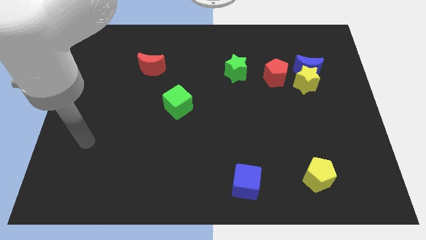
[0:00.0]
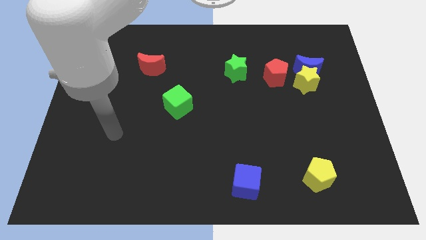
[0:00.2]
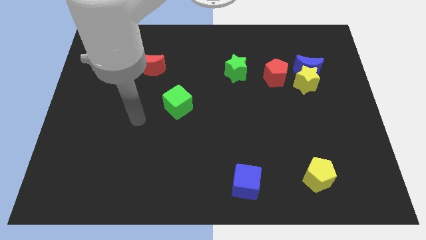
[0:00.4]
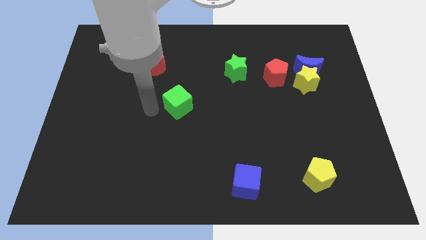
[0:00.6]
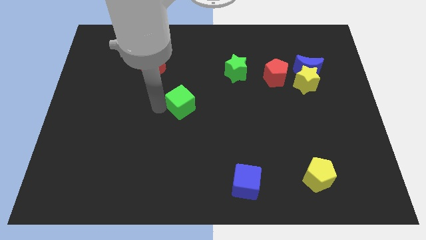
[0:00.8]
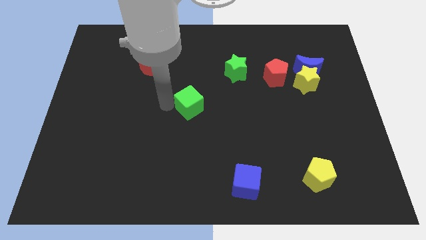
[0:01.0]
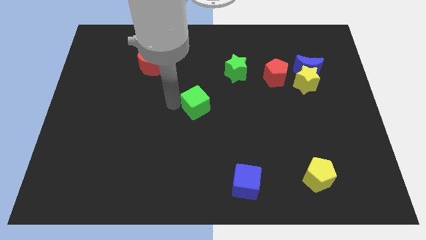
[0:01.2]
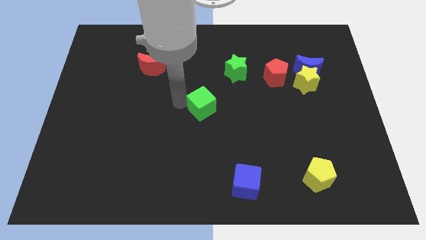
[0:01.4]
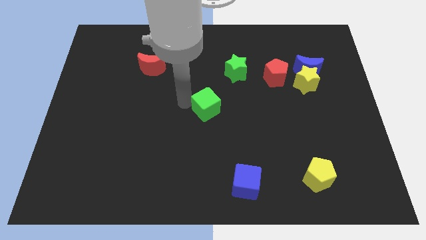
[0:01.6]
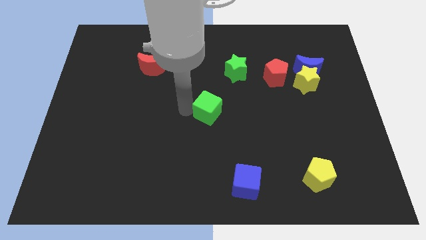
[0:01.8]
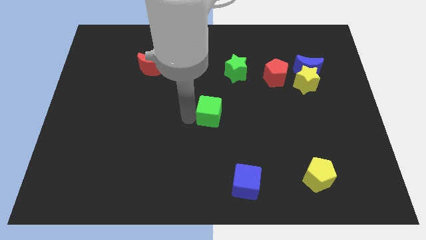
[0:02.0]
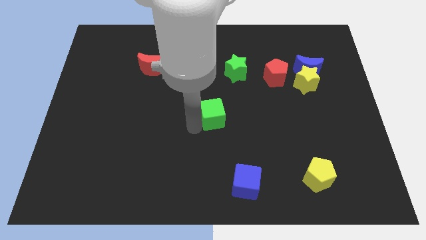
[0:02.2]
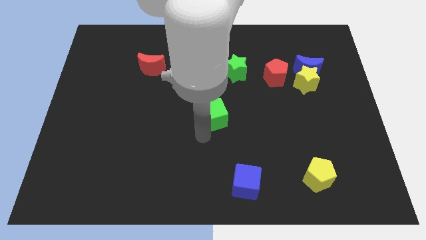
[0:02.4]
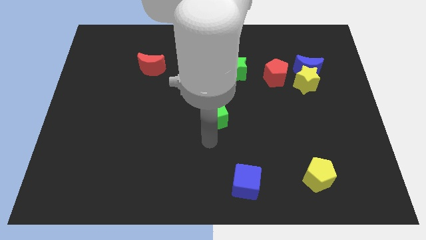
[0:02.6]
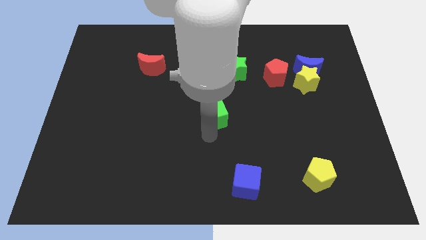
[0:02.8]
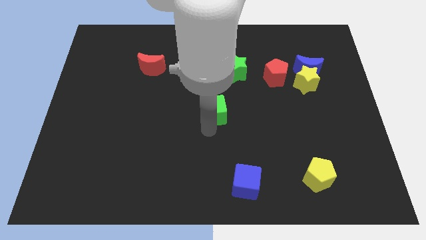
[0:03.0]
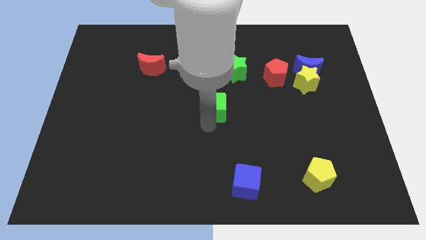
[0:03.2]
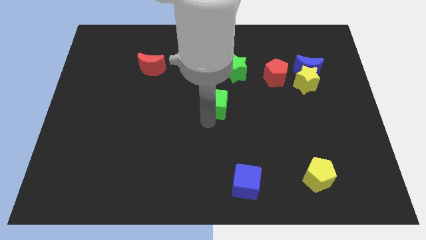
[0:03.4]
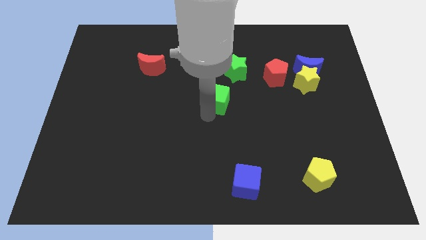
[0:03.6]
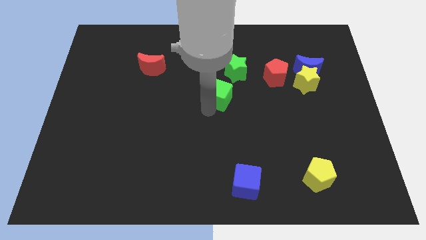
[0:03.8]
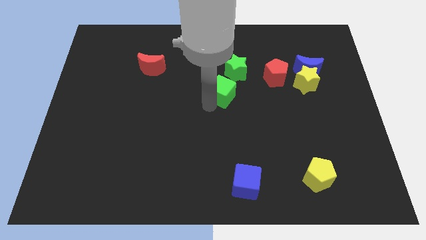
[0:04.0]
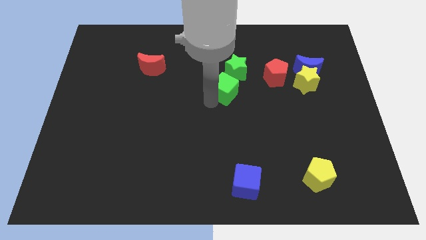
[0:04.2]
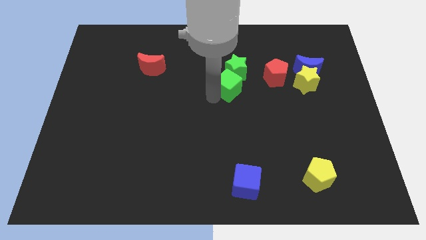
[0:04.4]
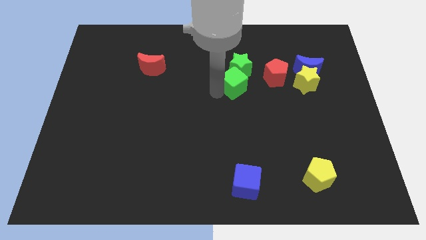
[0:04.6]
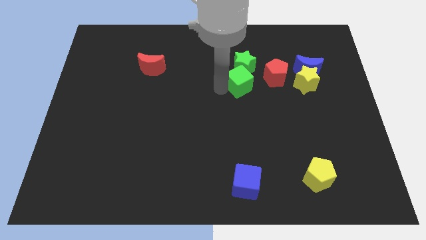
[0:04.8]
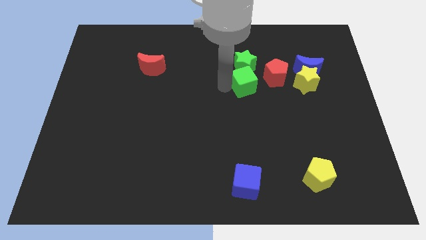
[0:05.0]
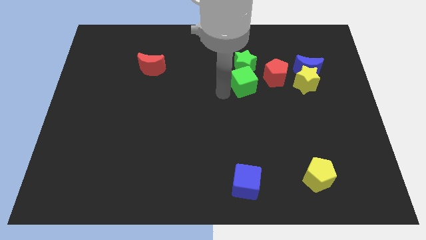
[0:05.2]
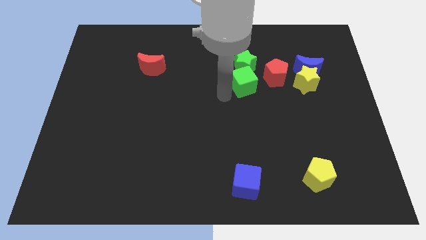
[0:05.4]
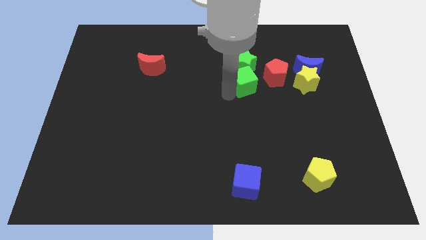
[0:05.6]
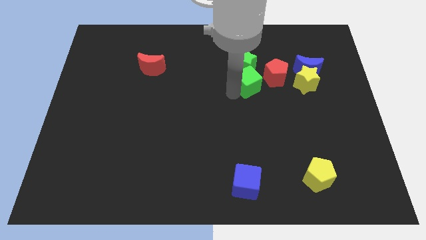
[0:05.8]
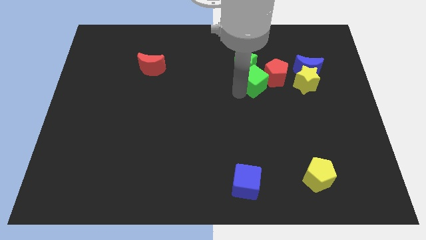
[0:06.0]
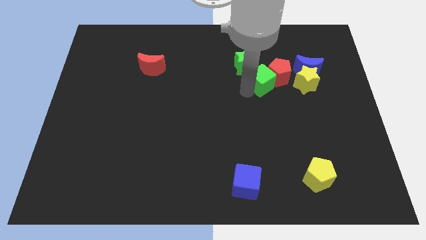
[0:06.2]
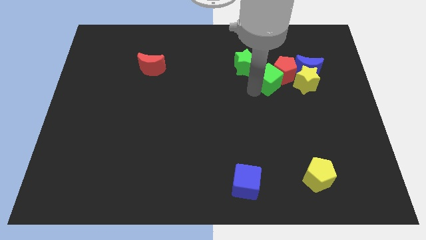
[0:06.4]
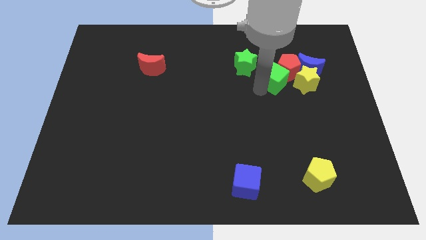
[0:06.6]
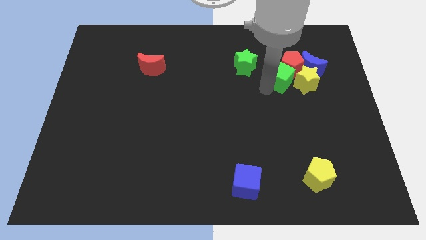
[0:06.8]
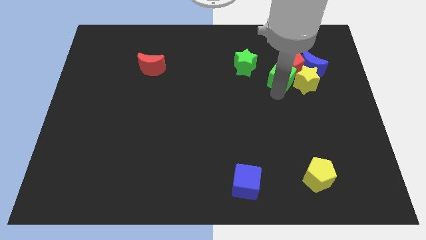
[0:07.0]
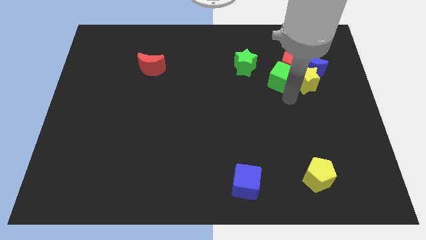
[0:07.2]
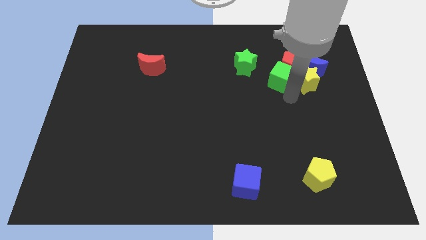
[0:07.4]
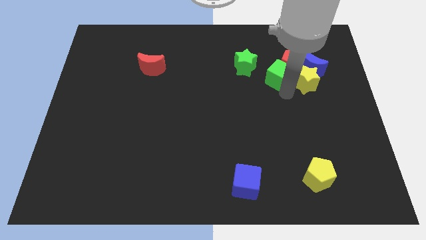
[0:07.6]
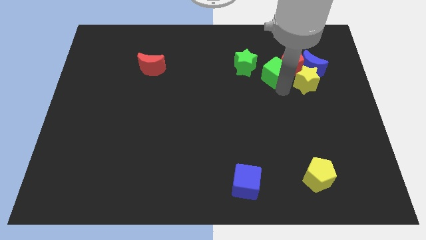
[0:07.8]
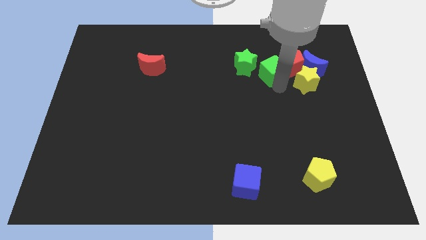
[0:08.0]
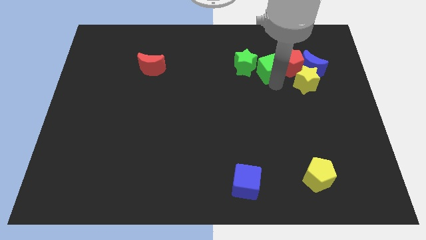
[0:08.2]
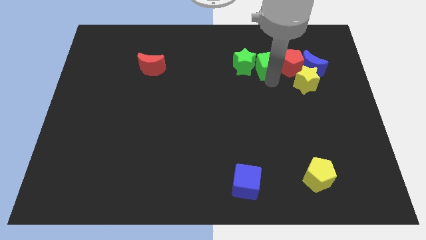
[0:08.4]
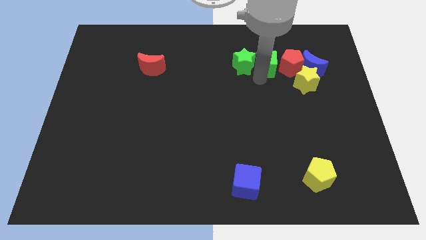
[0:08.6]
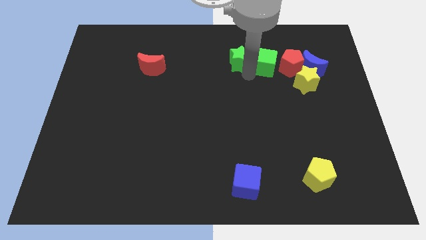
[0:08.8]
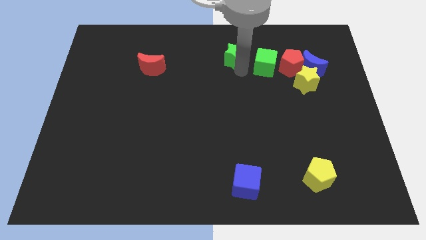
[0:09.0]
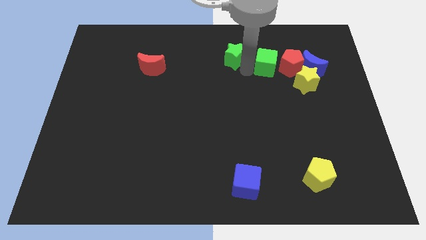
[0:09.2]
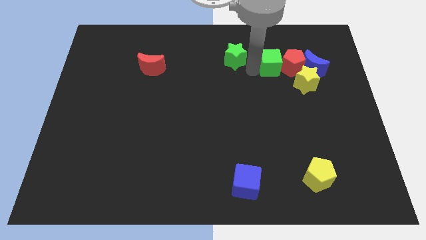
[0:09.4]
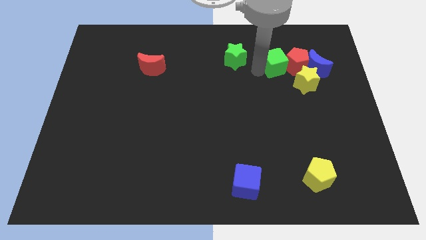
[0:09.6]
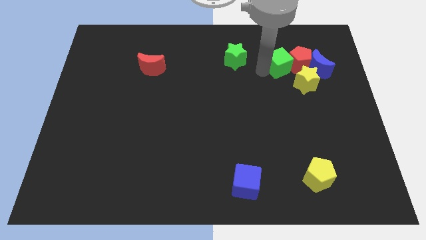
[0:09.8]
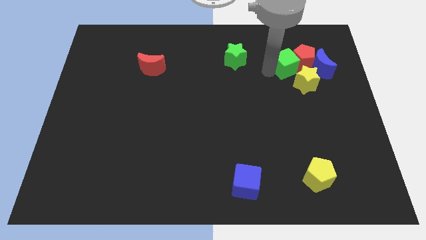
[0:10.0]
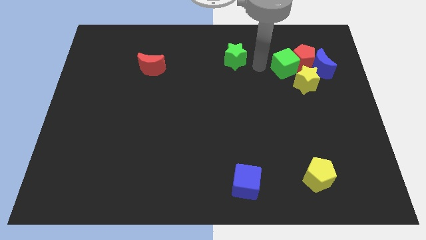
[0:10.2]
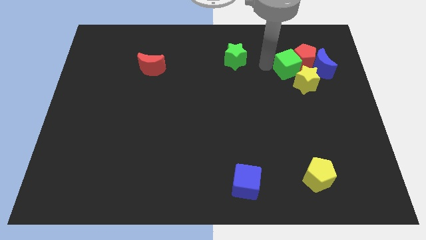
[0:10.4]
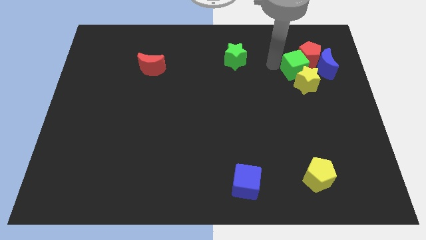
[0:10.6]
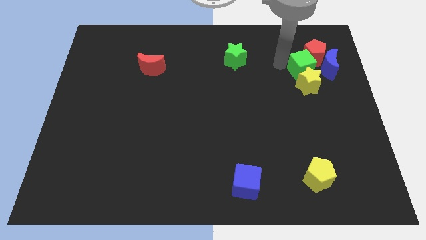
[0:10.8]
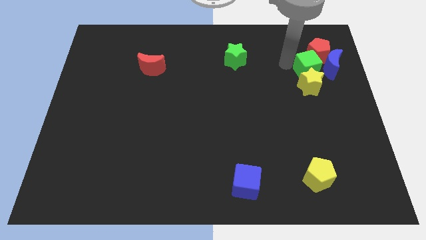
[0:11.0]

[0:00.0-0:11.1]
move the green cube towards the blue moon

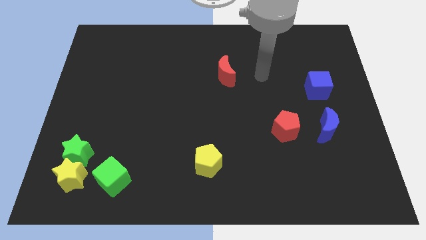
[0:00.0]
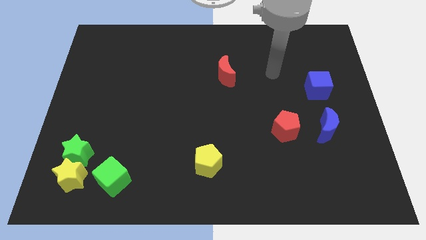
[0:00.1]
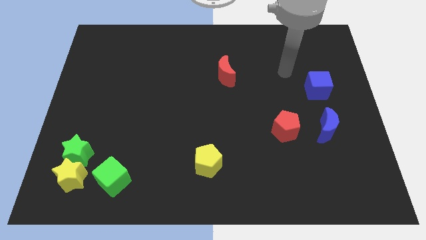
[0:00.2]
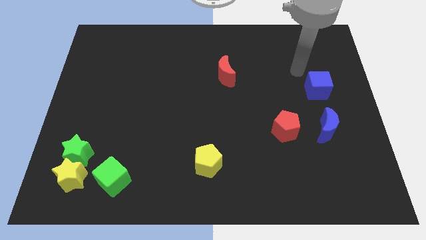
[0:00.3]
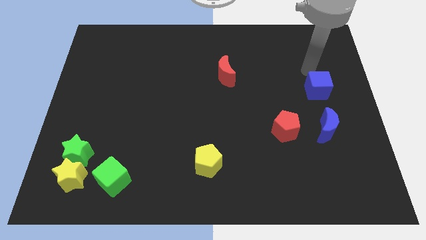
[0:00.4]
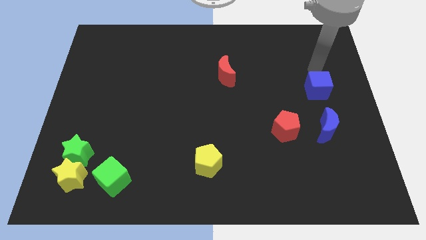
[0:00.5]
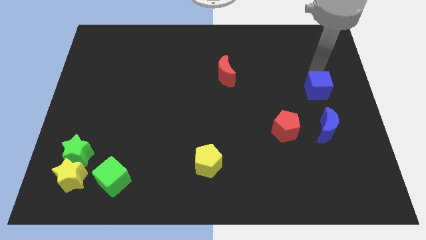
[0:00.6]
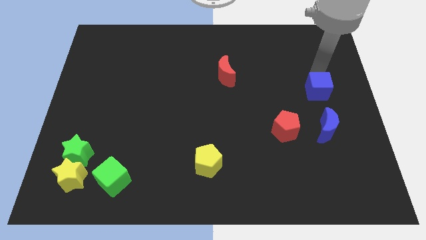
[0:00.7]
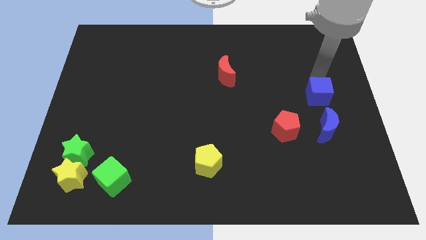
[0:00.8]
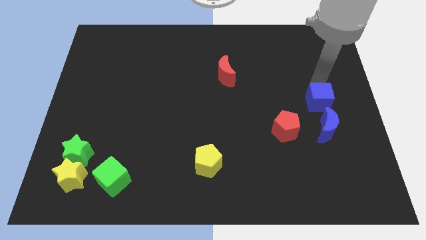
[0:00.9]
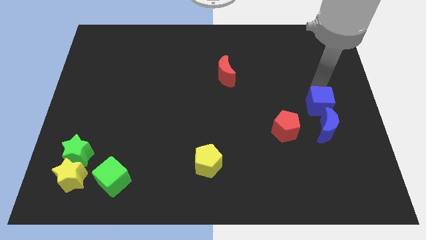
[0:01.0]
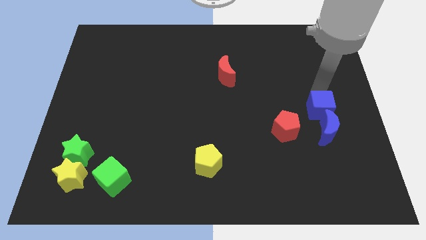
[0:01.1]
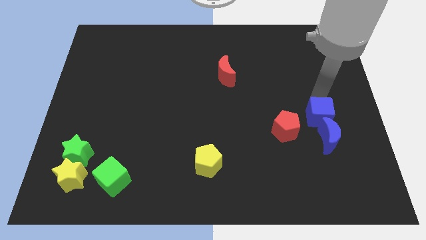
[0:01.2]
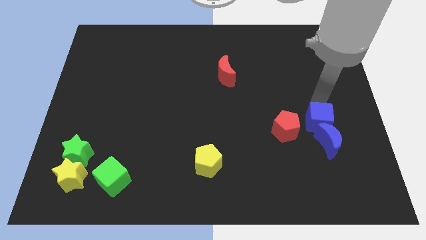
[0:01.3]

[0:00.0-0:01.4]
move the blue cube close to the blue moon
